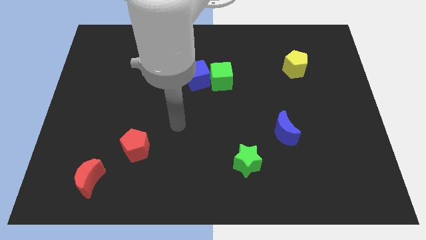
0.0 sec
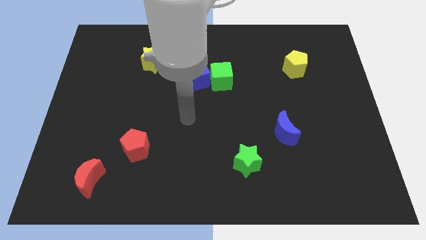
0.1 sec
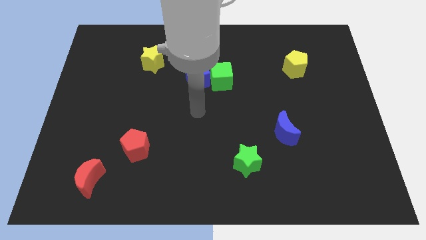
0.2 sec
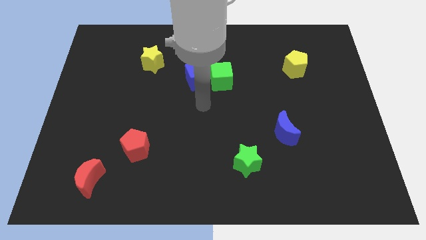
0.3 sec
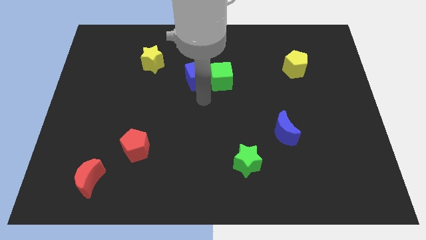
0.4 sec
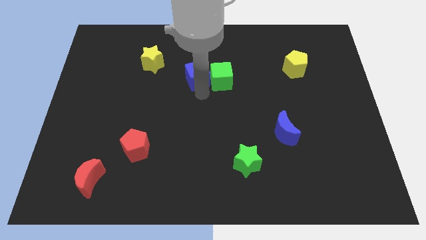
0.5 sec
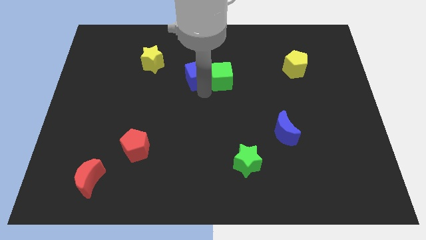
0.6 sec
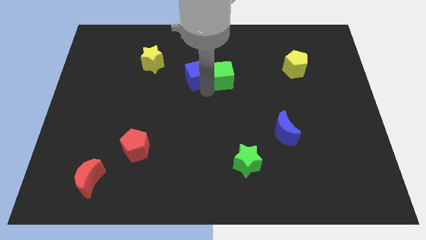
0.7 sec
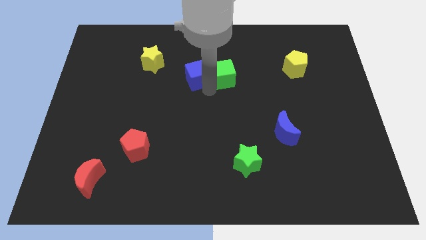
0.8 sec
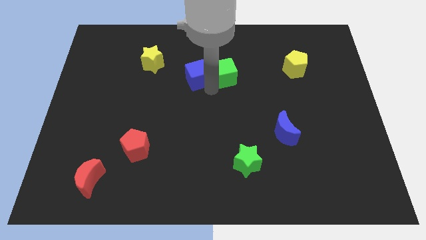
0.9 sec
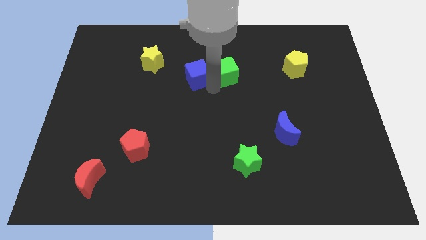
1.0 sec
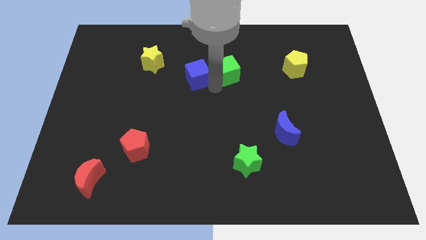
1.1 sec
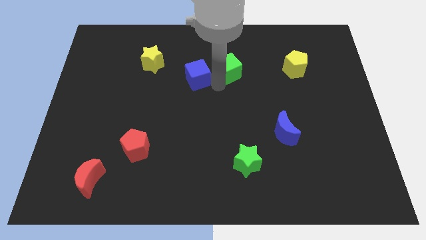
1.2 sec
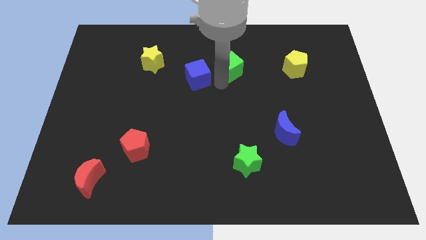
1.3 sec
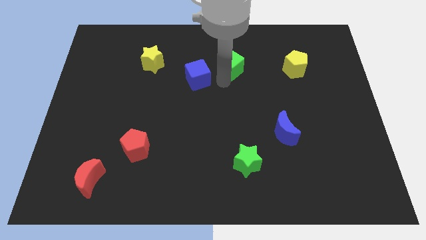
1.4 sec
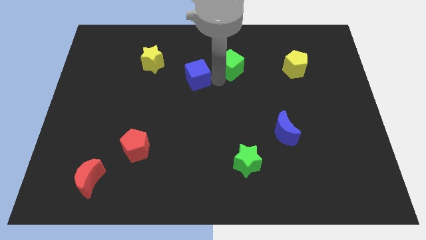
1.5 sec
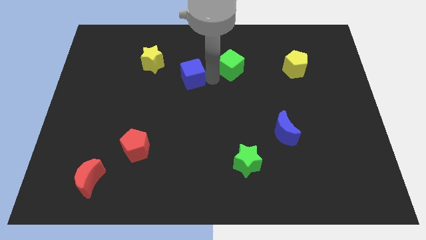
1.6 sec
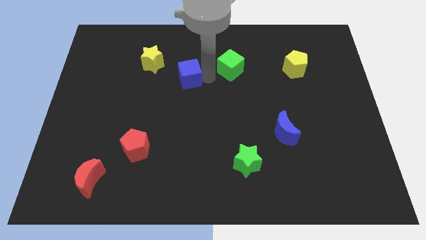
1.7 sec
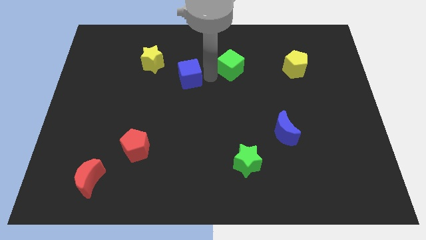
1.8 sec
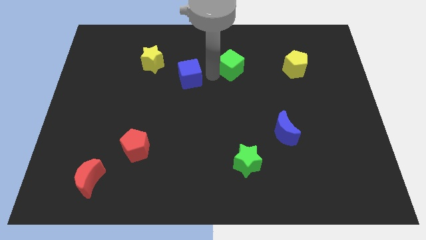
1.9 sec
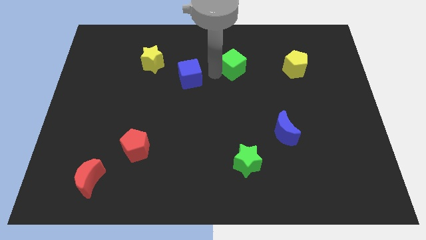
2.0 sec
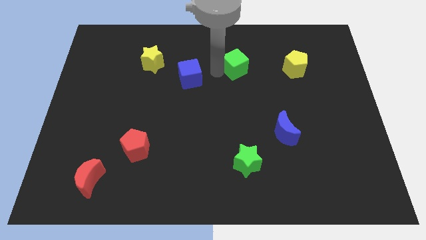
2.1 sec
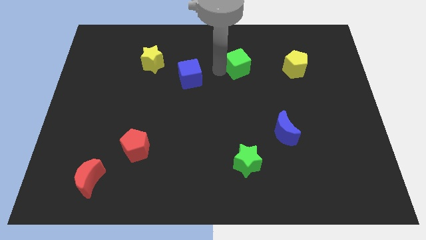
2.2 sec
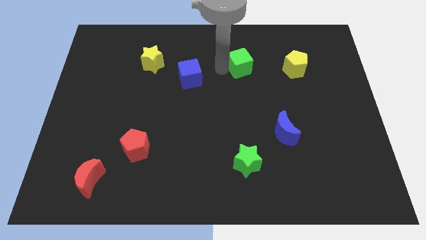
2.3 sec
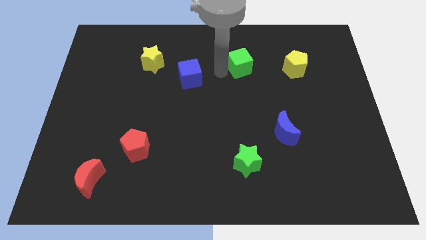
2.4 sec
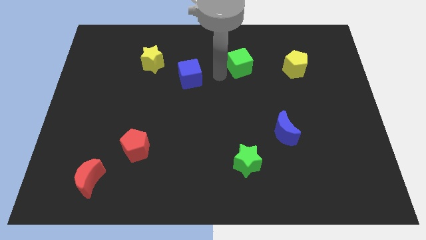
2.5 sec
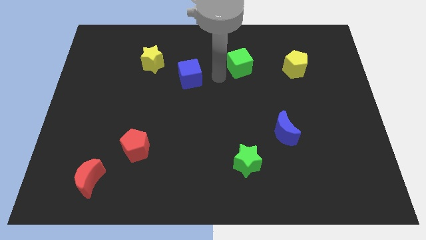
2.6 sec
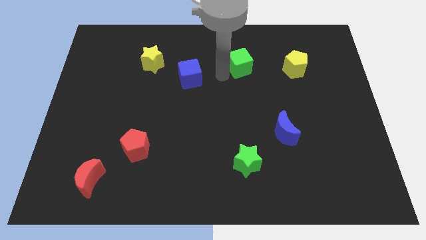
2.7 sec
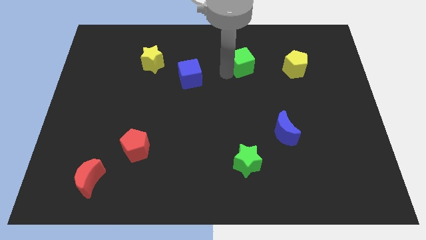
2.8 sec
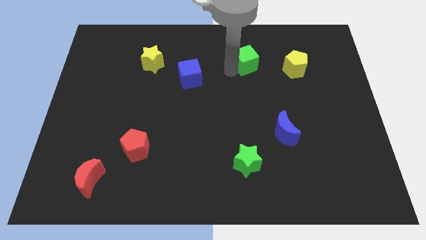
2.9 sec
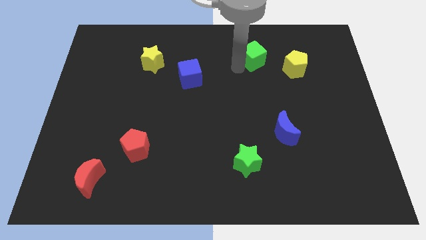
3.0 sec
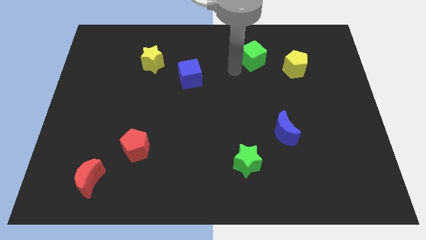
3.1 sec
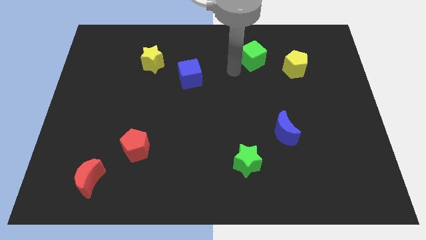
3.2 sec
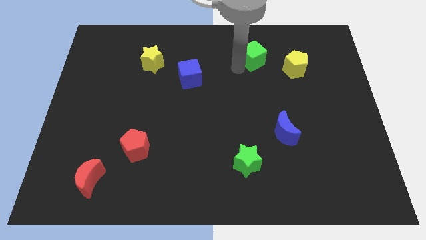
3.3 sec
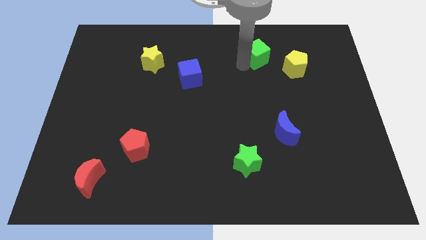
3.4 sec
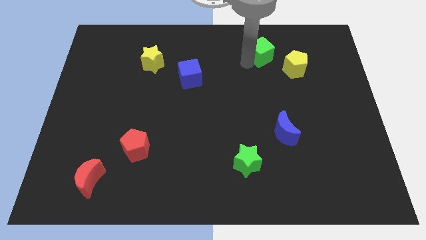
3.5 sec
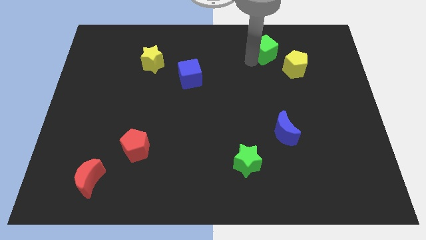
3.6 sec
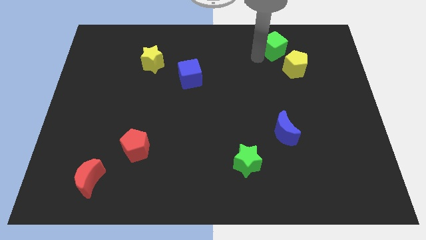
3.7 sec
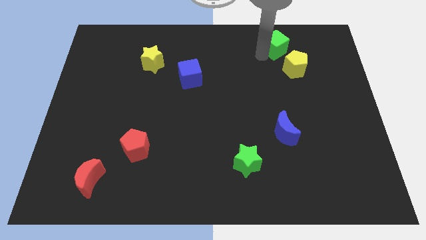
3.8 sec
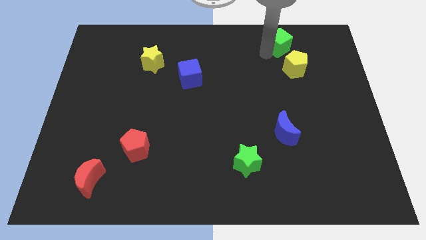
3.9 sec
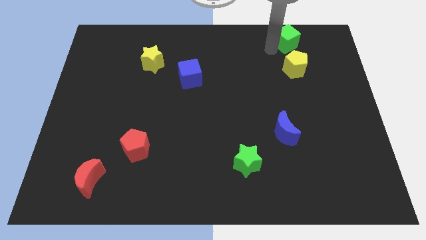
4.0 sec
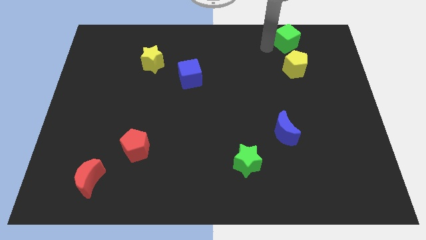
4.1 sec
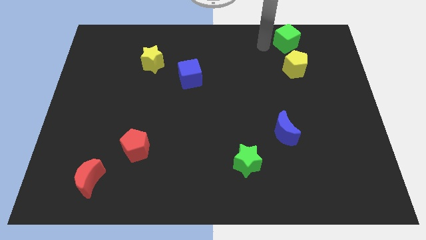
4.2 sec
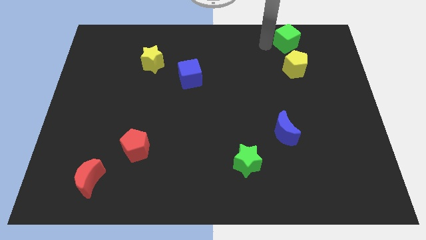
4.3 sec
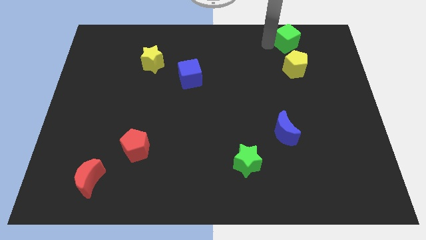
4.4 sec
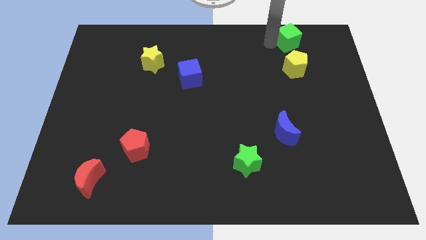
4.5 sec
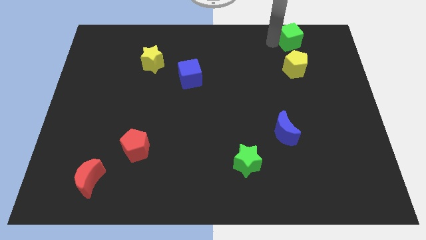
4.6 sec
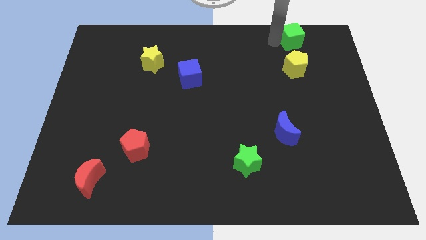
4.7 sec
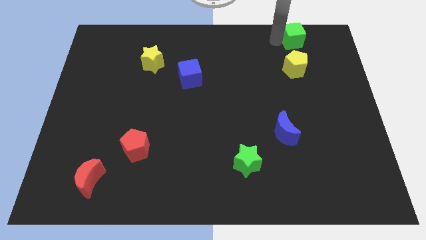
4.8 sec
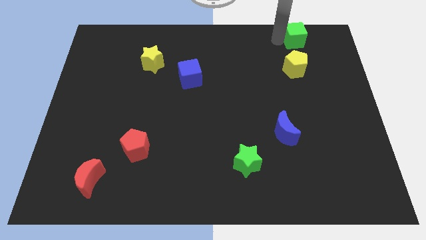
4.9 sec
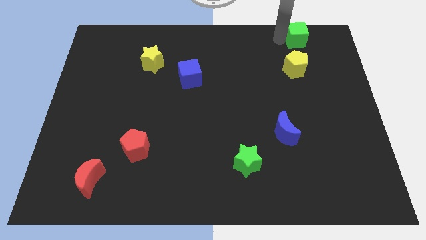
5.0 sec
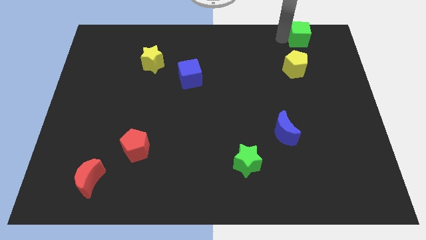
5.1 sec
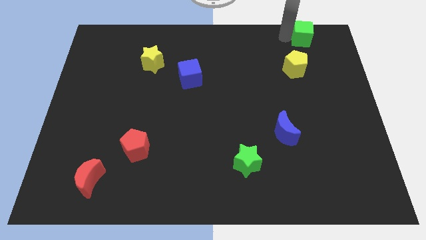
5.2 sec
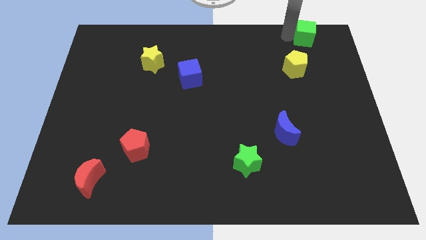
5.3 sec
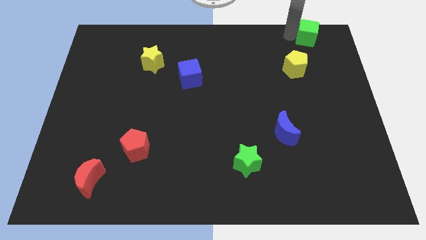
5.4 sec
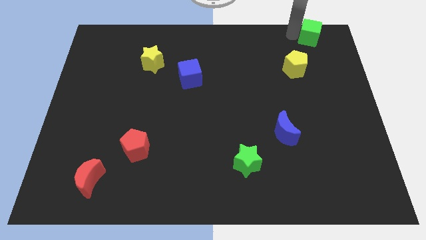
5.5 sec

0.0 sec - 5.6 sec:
slide the green cube to the top right corner

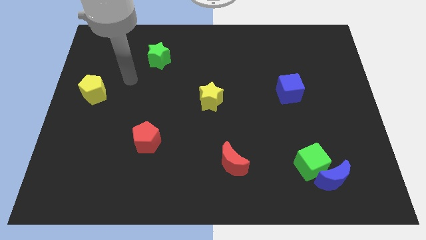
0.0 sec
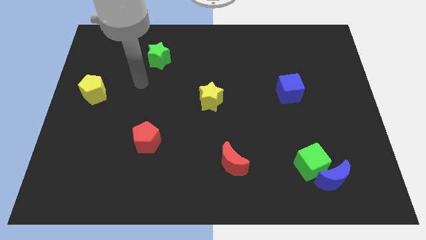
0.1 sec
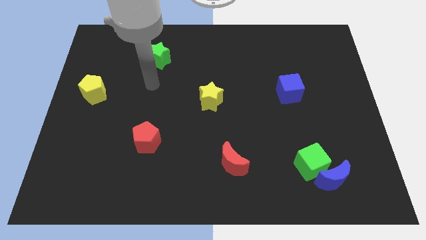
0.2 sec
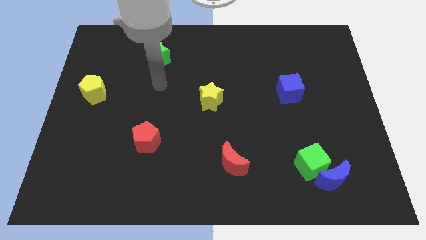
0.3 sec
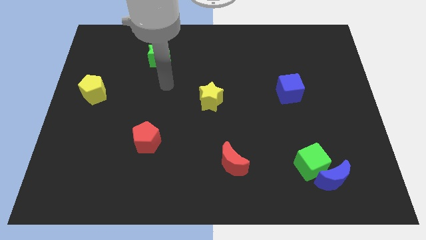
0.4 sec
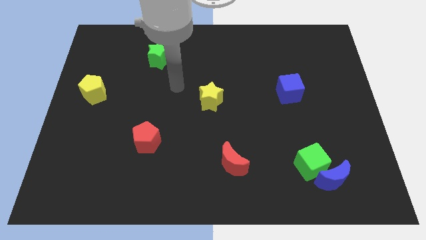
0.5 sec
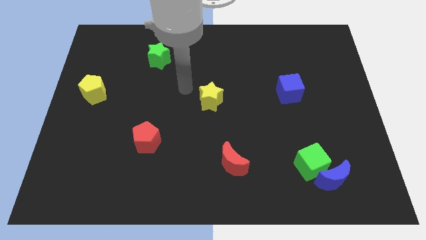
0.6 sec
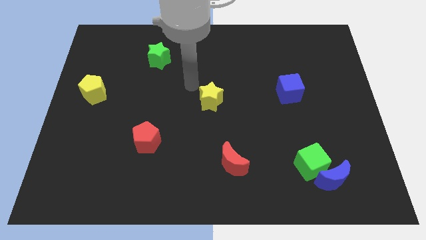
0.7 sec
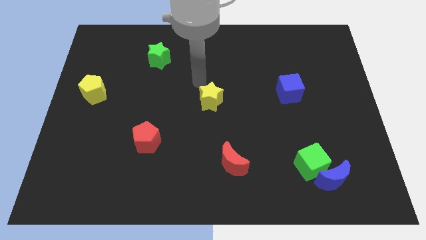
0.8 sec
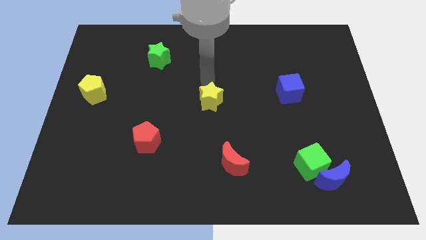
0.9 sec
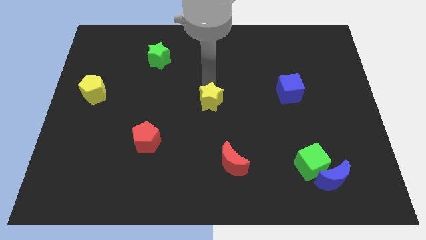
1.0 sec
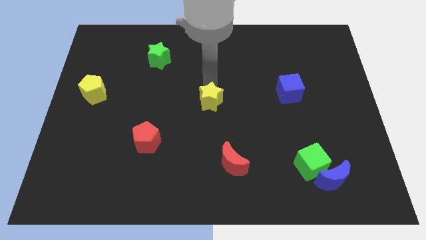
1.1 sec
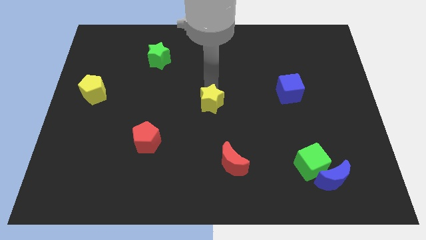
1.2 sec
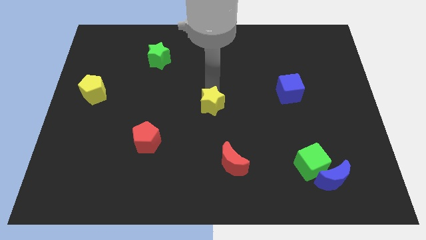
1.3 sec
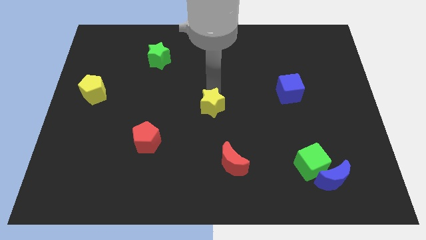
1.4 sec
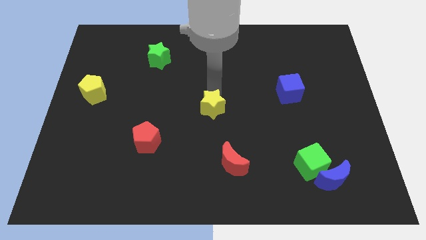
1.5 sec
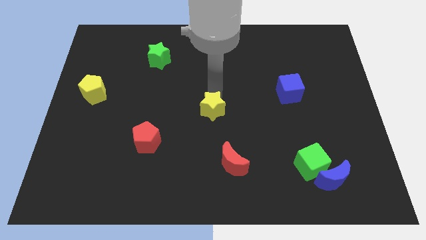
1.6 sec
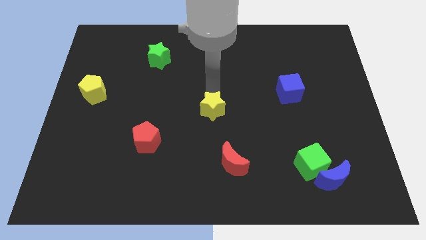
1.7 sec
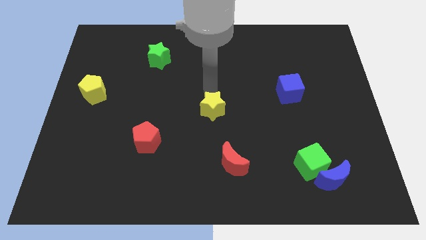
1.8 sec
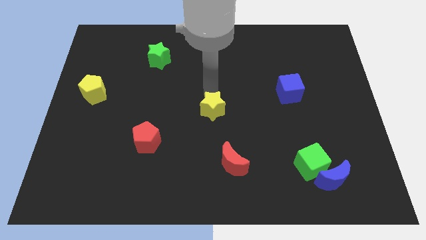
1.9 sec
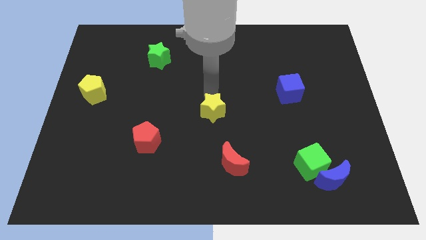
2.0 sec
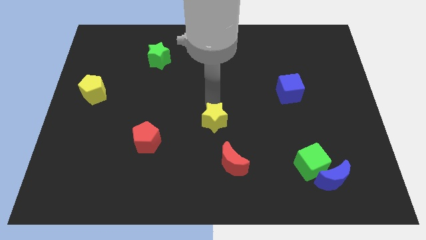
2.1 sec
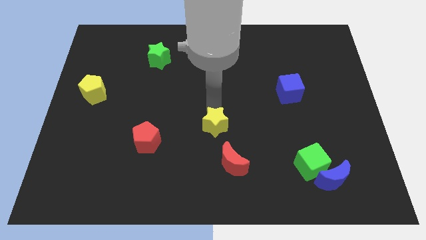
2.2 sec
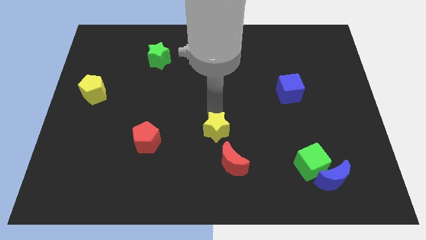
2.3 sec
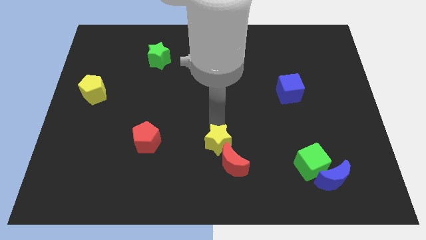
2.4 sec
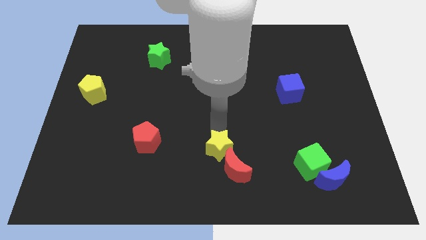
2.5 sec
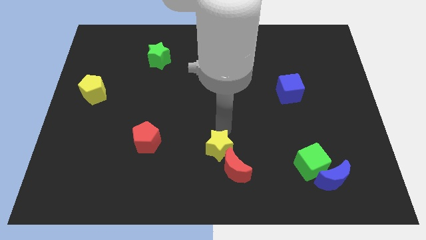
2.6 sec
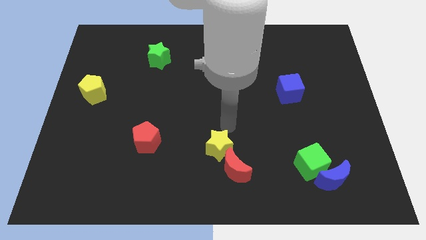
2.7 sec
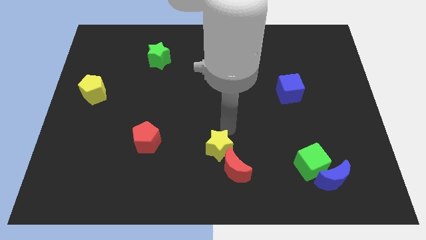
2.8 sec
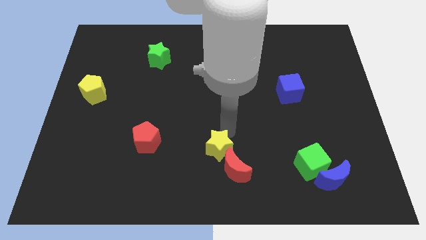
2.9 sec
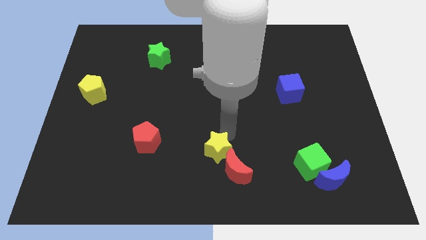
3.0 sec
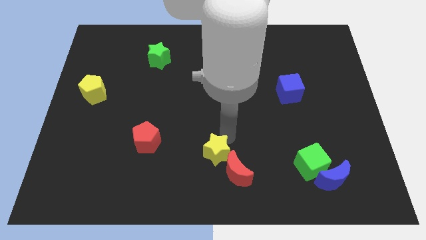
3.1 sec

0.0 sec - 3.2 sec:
move the yellow star to the bottom side
